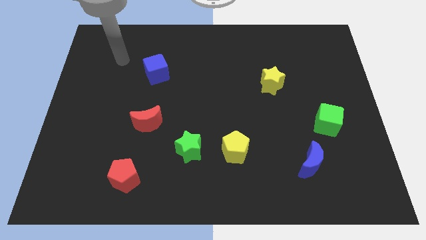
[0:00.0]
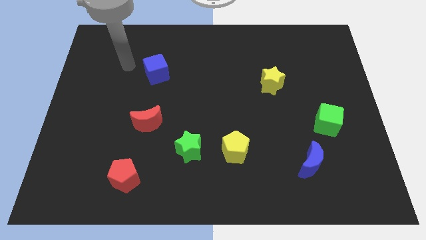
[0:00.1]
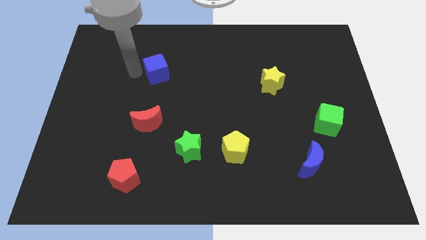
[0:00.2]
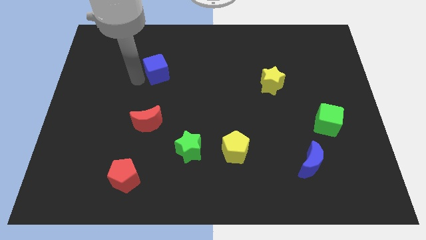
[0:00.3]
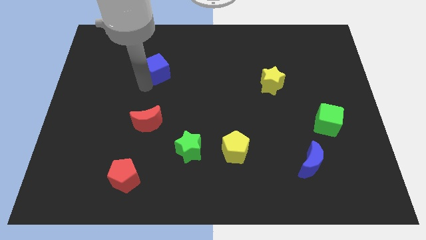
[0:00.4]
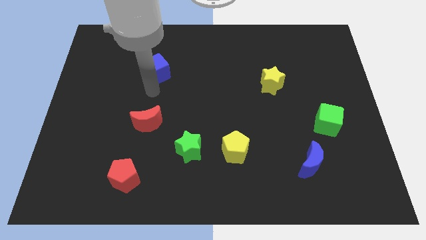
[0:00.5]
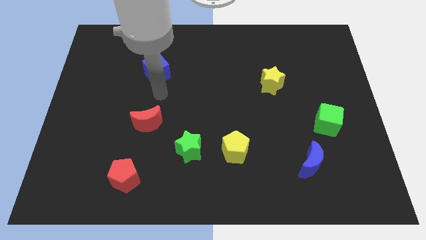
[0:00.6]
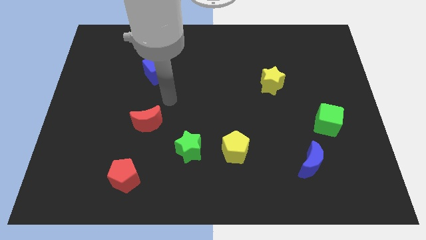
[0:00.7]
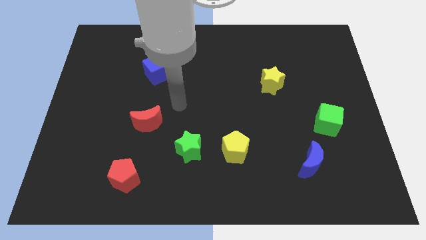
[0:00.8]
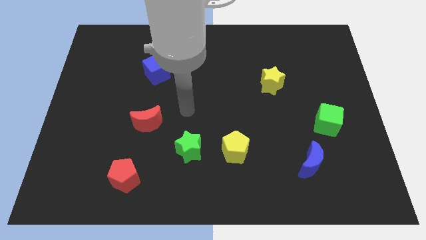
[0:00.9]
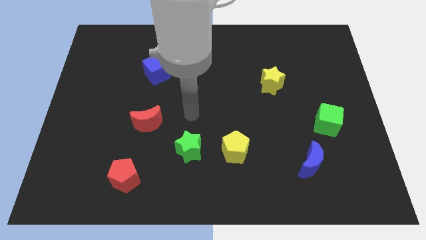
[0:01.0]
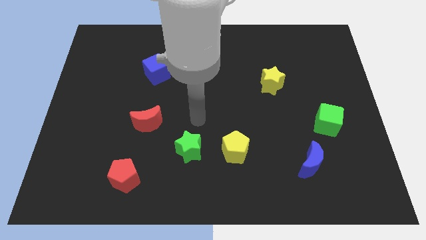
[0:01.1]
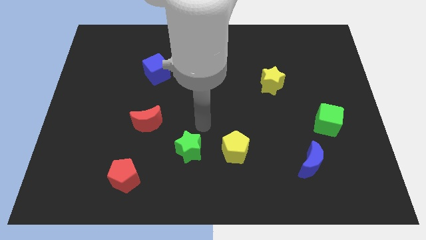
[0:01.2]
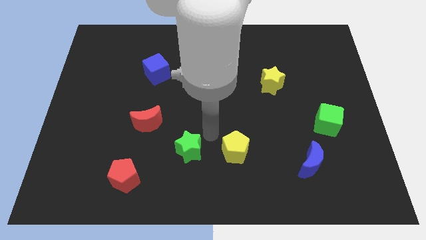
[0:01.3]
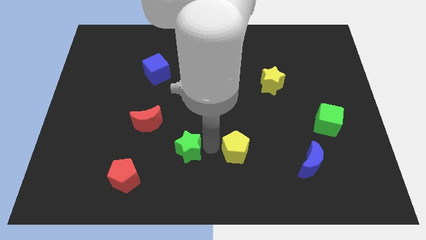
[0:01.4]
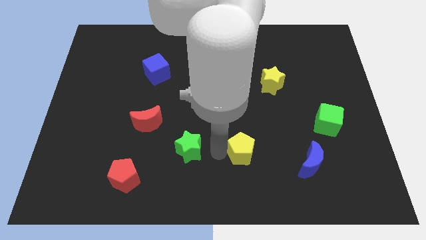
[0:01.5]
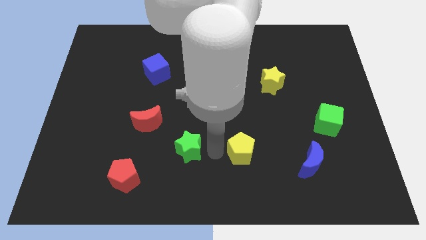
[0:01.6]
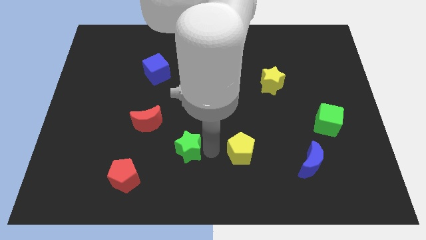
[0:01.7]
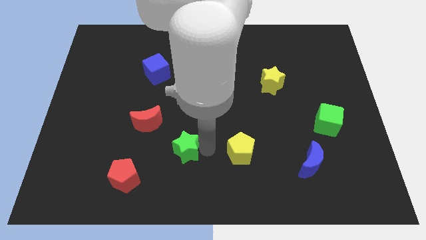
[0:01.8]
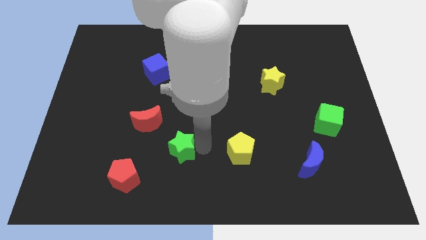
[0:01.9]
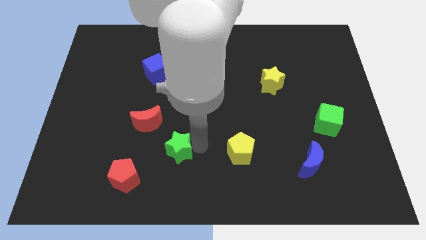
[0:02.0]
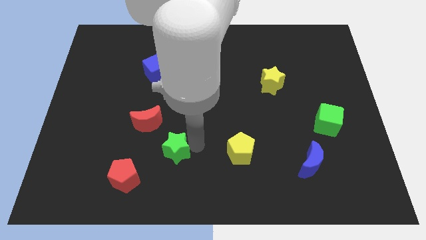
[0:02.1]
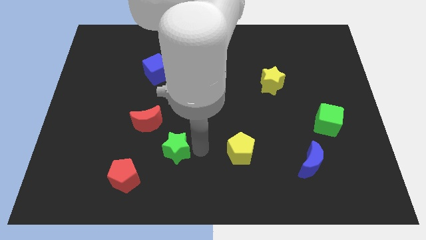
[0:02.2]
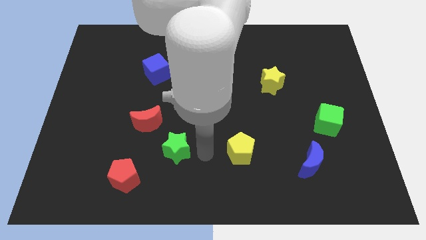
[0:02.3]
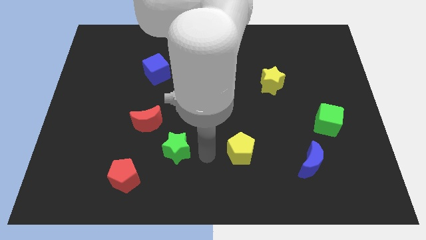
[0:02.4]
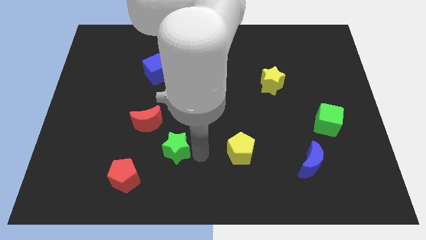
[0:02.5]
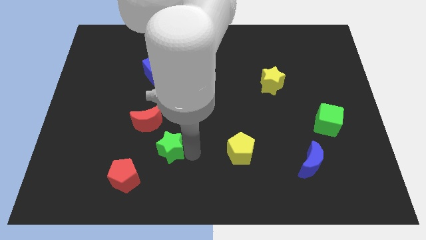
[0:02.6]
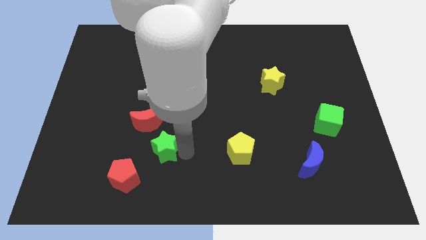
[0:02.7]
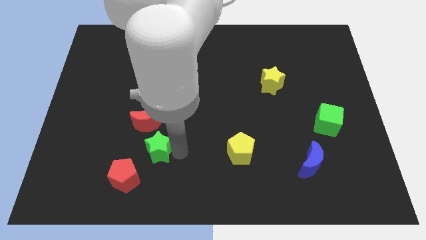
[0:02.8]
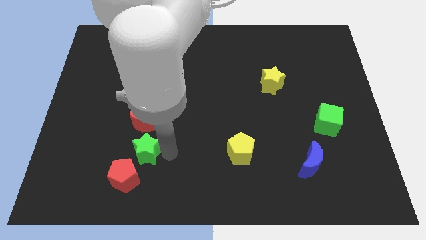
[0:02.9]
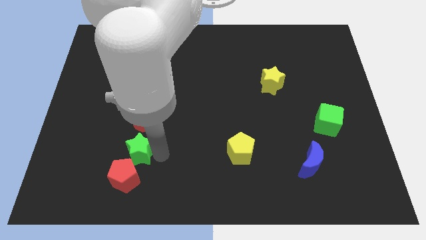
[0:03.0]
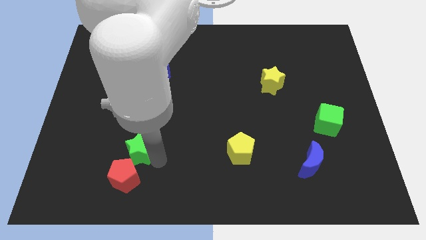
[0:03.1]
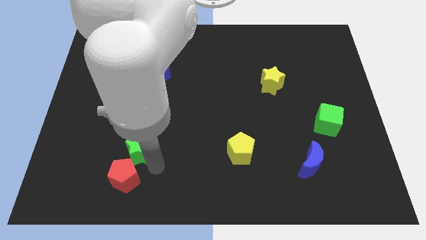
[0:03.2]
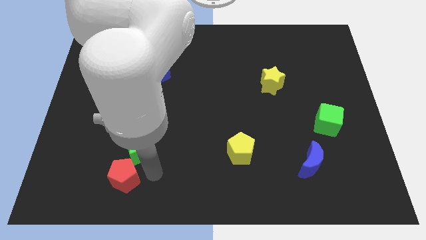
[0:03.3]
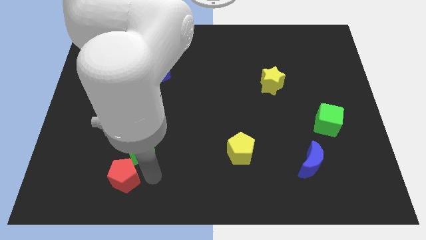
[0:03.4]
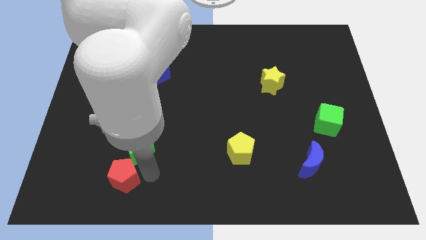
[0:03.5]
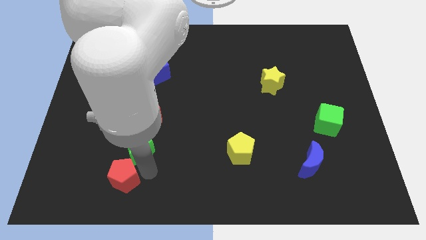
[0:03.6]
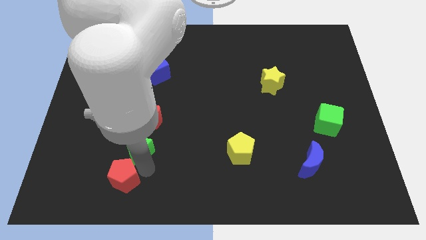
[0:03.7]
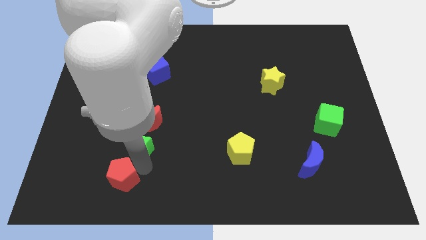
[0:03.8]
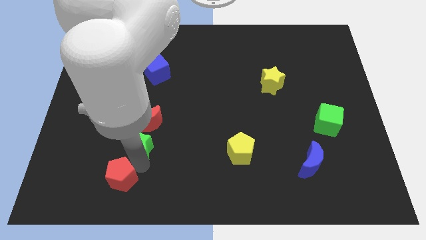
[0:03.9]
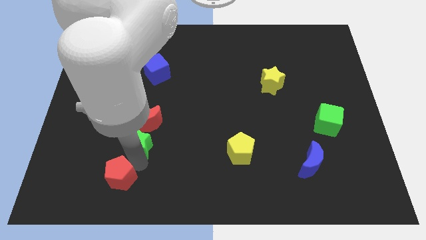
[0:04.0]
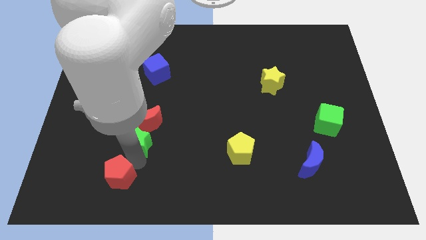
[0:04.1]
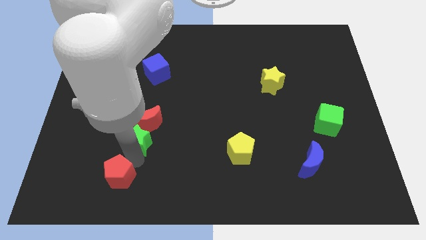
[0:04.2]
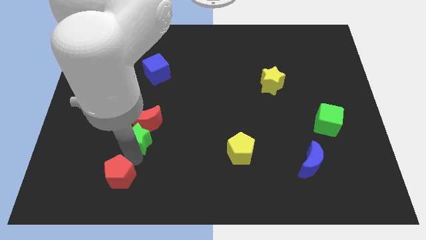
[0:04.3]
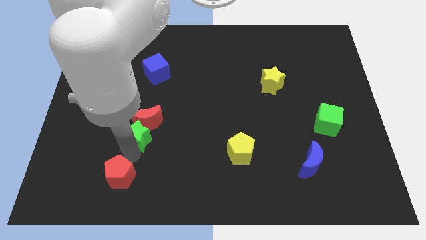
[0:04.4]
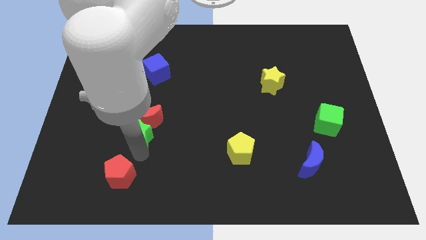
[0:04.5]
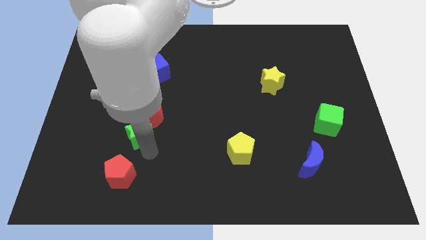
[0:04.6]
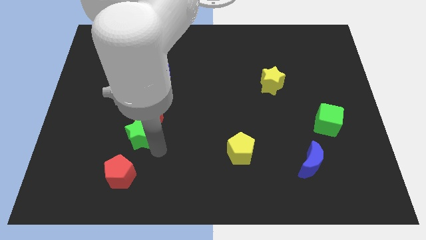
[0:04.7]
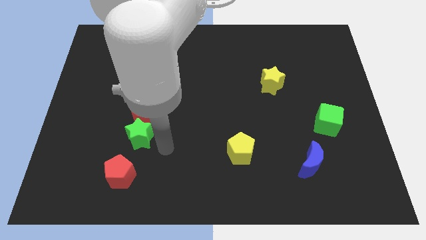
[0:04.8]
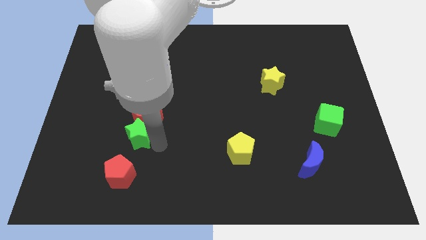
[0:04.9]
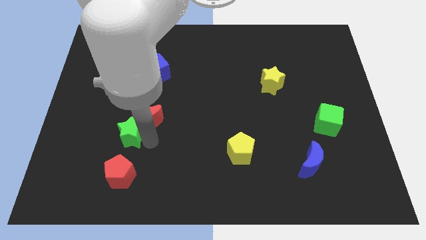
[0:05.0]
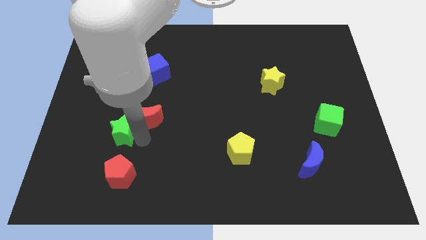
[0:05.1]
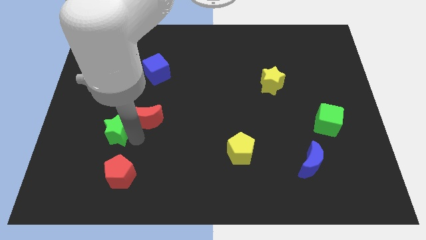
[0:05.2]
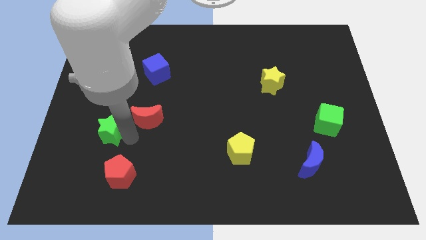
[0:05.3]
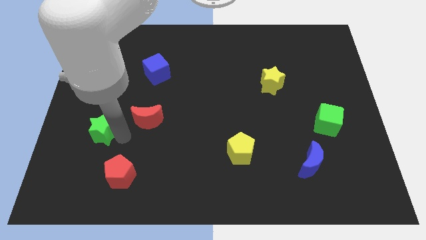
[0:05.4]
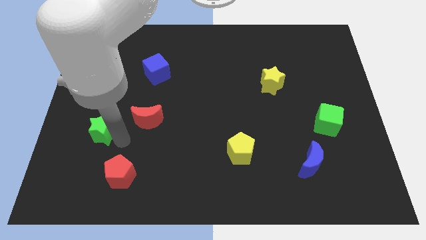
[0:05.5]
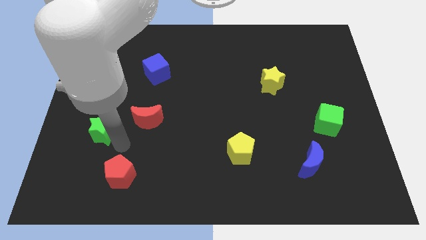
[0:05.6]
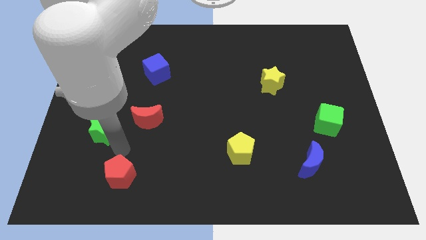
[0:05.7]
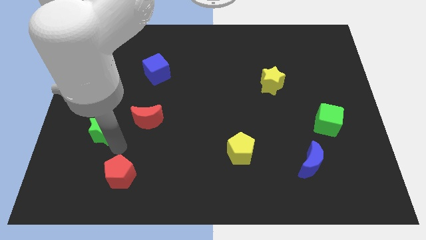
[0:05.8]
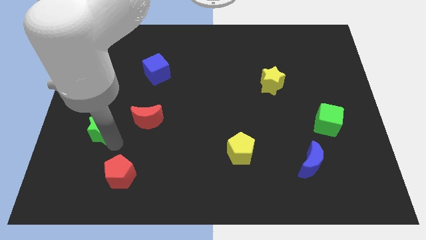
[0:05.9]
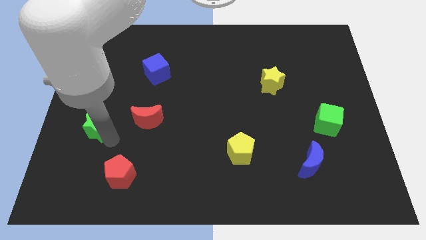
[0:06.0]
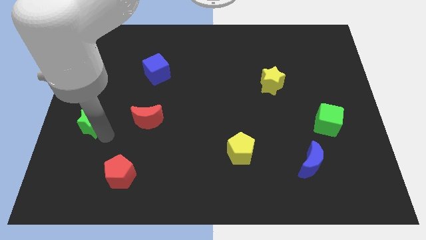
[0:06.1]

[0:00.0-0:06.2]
put the green star to the left side

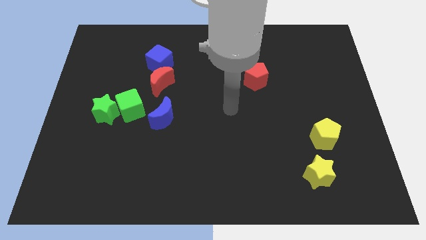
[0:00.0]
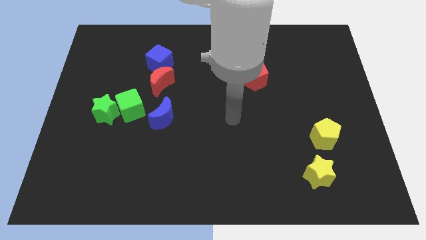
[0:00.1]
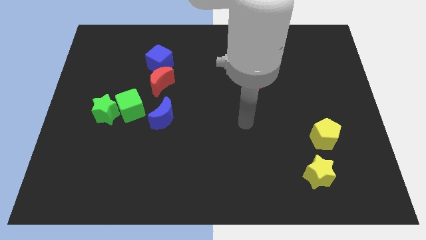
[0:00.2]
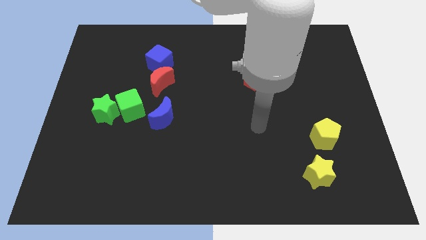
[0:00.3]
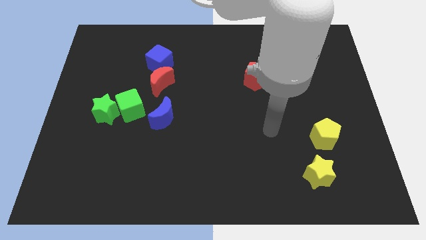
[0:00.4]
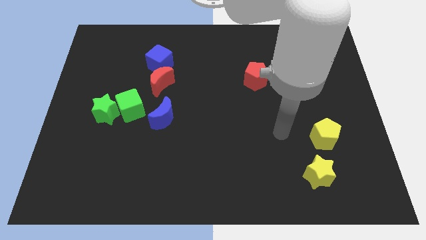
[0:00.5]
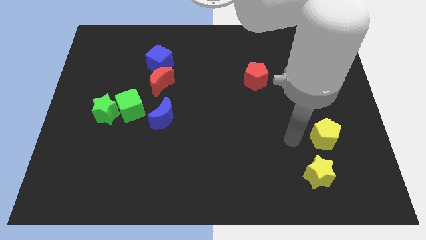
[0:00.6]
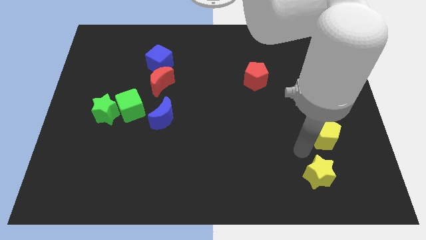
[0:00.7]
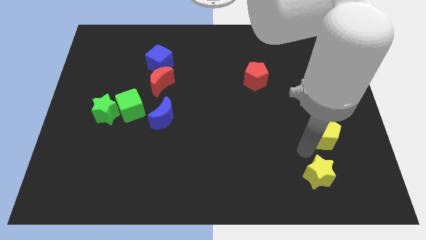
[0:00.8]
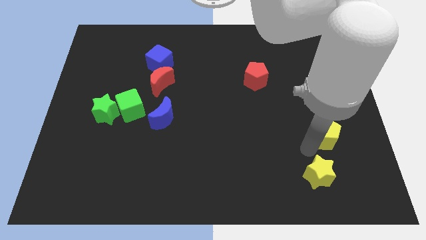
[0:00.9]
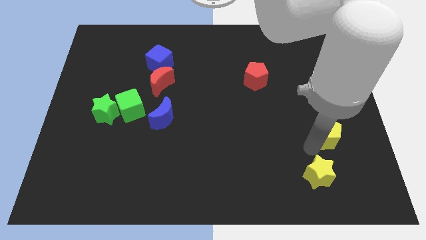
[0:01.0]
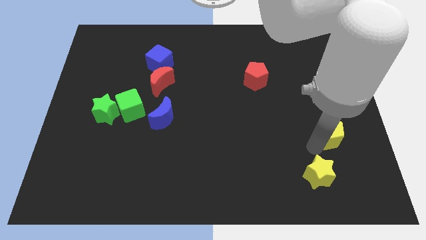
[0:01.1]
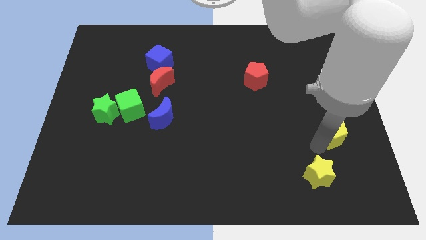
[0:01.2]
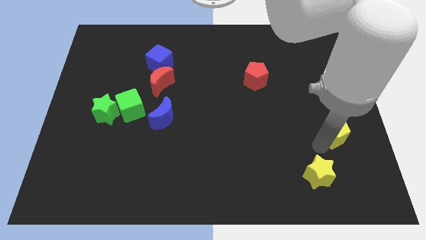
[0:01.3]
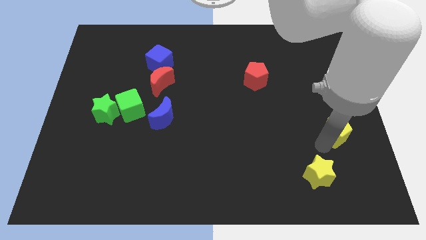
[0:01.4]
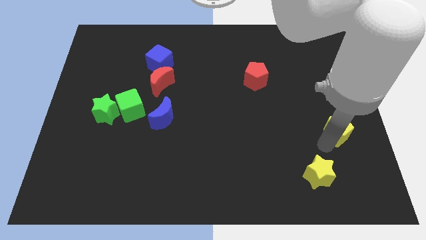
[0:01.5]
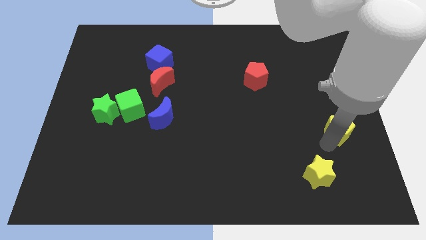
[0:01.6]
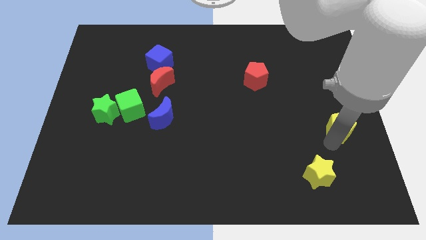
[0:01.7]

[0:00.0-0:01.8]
put the yellow pentagon to the right side
